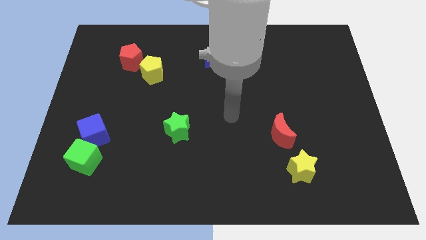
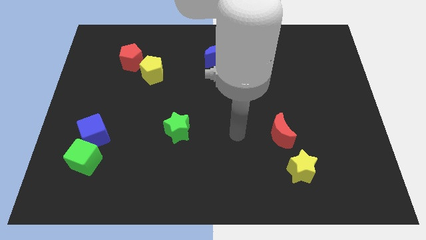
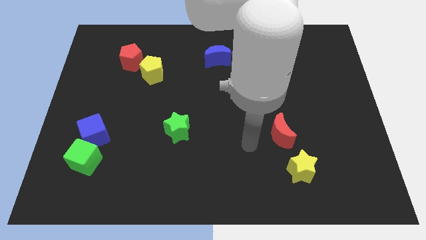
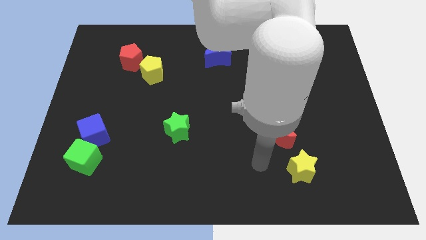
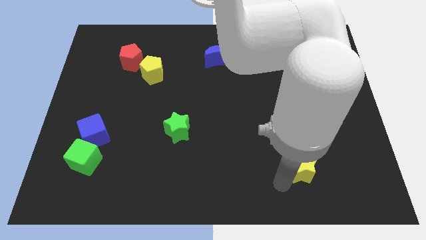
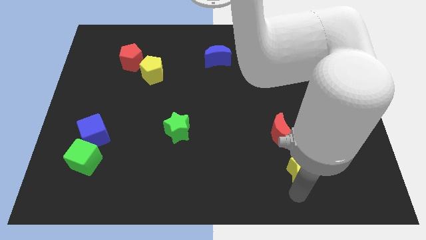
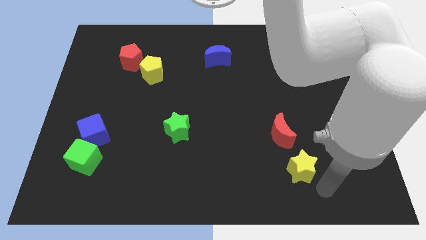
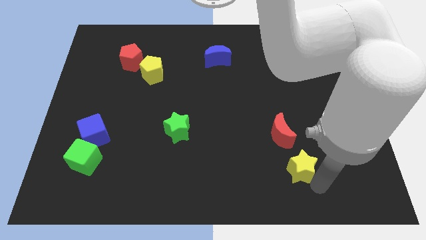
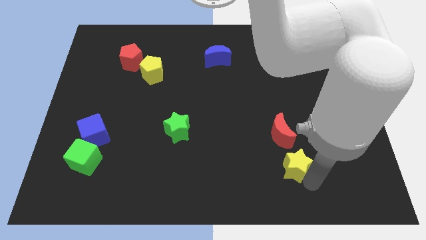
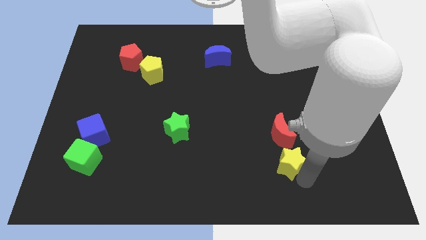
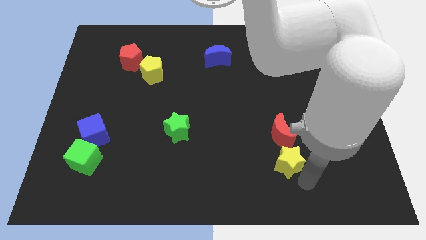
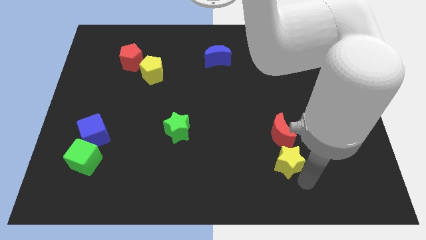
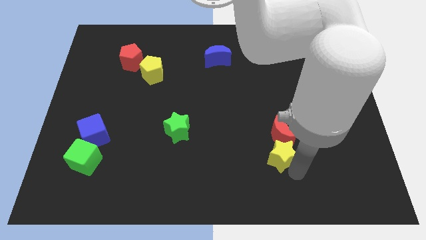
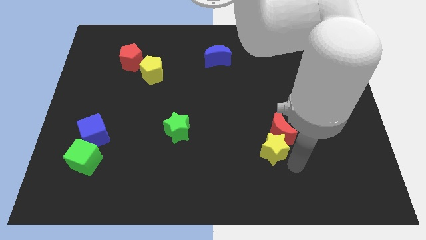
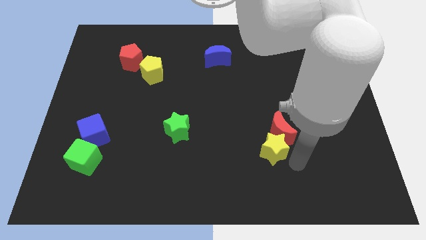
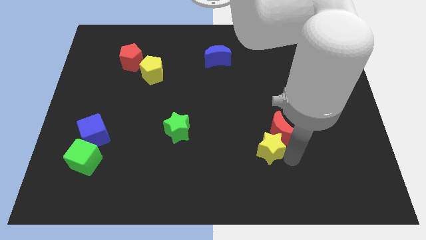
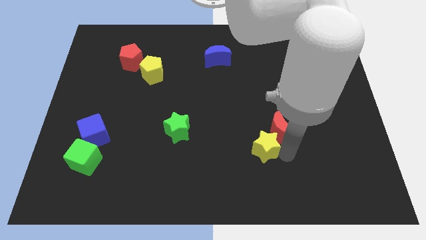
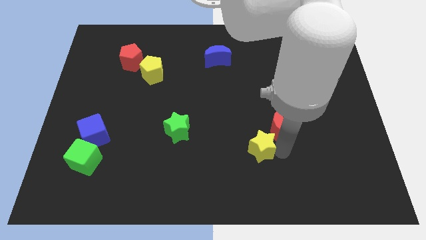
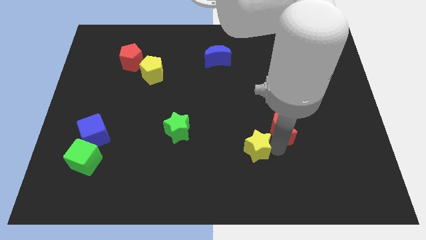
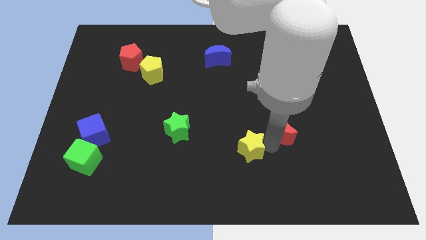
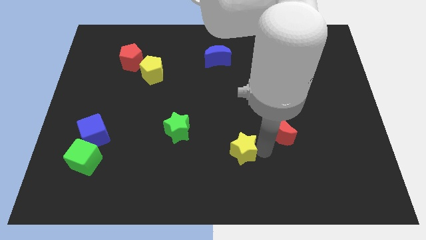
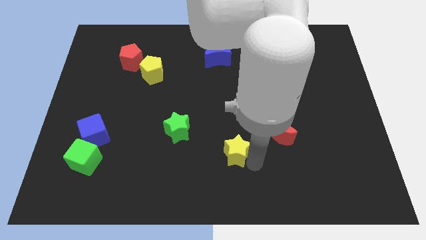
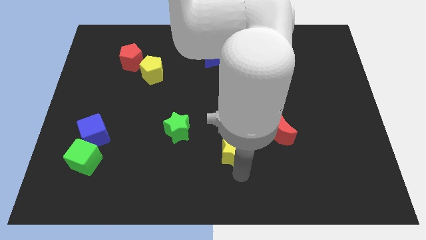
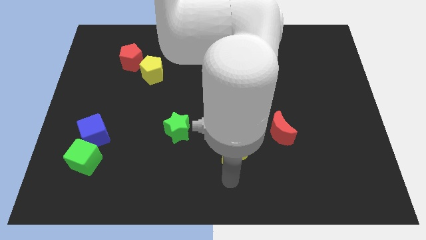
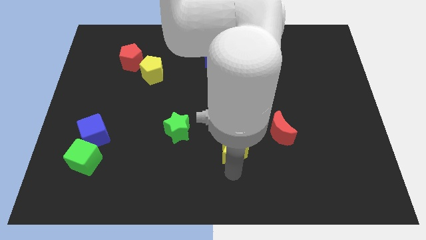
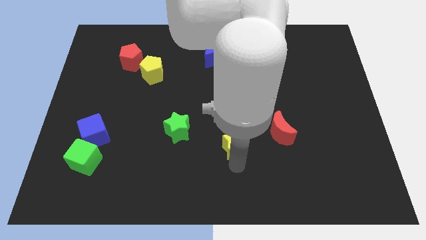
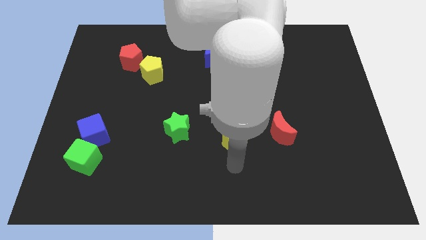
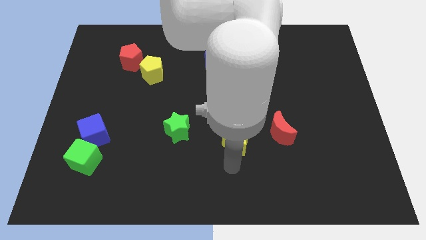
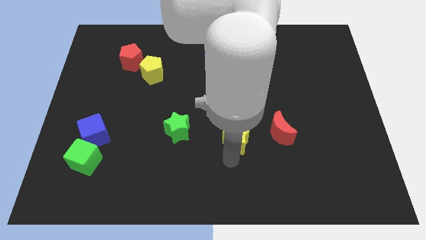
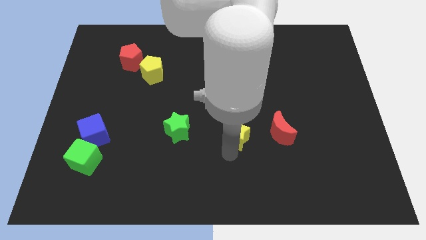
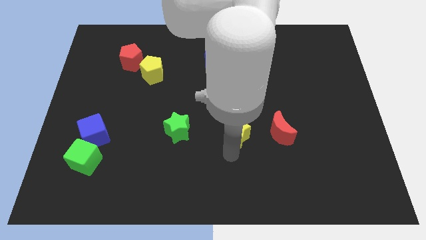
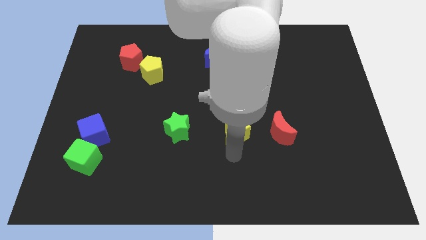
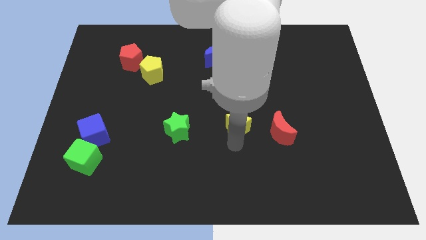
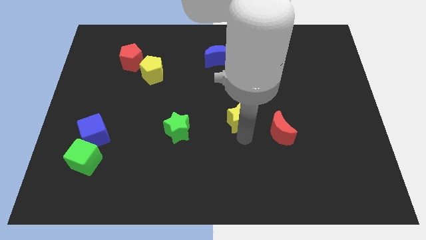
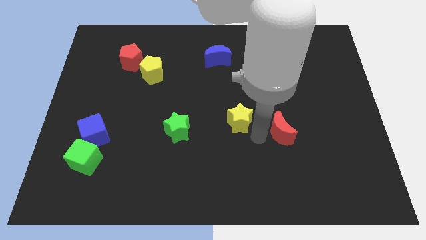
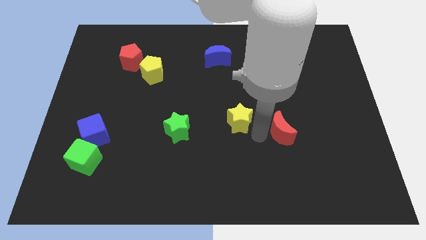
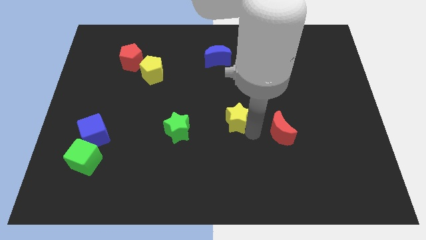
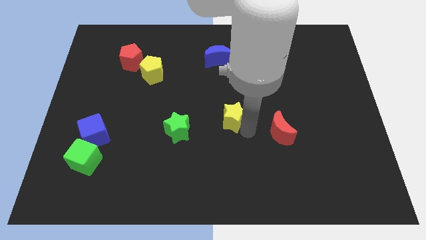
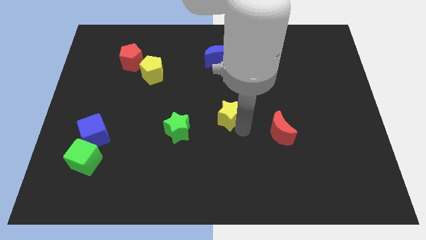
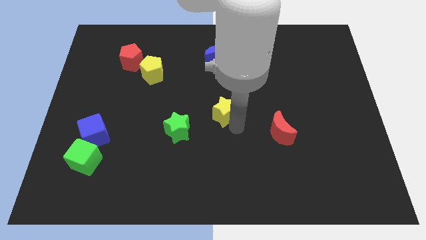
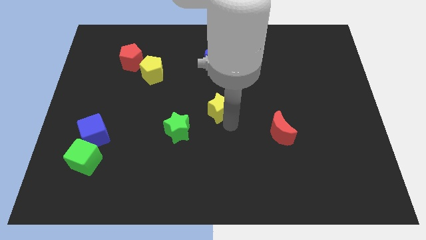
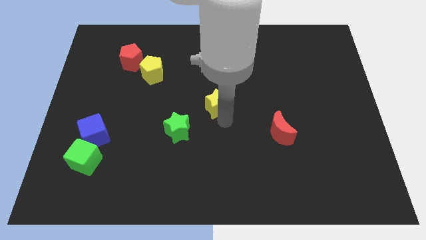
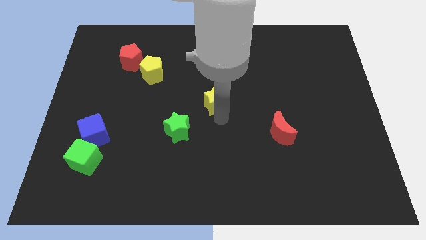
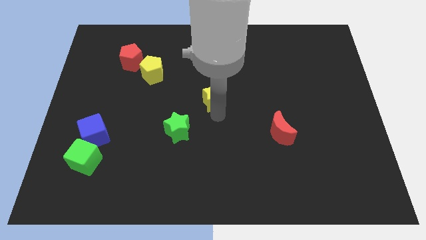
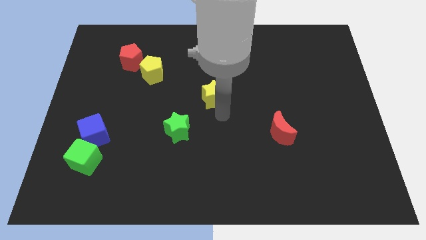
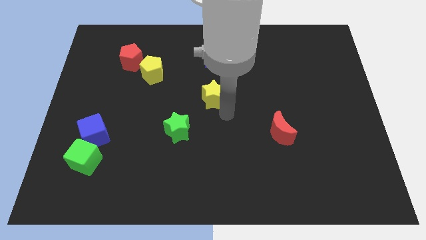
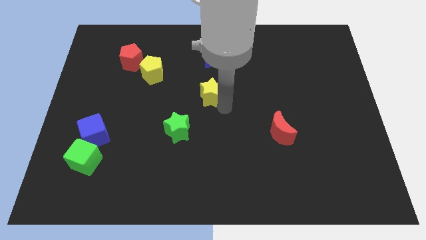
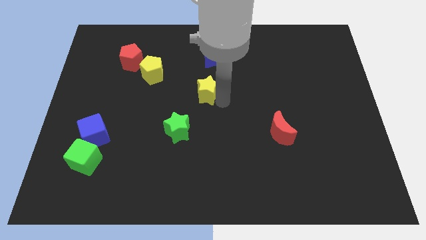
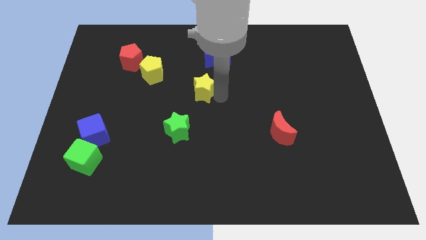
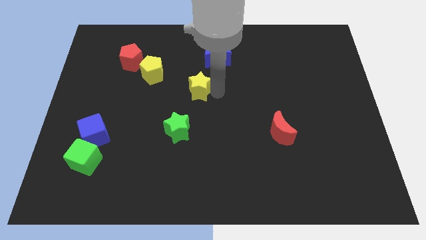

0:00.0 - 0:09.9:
push the yellow star diagonally down and to the left of the blue moon

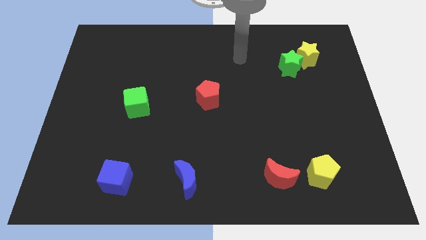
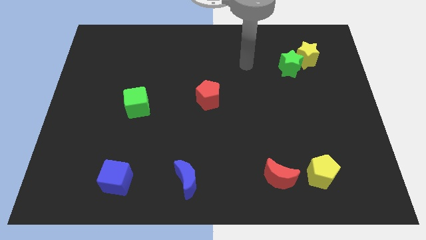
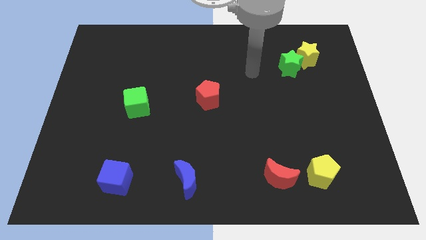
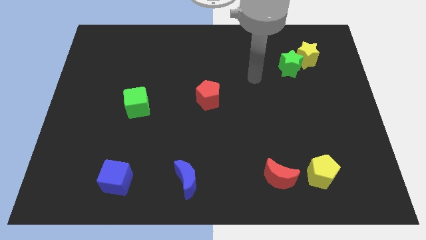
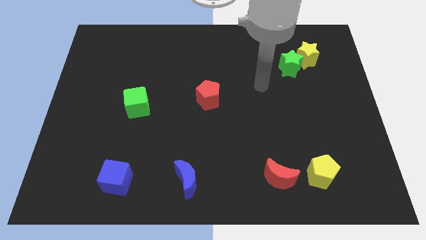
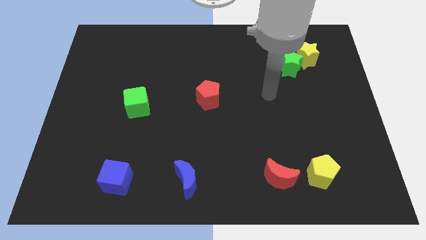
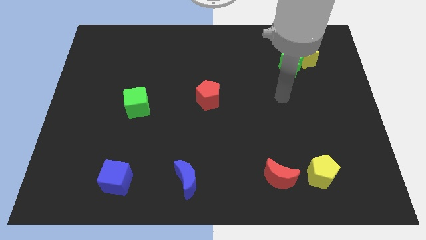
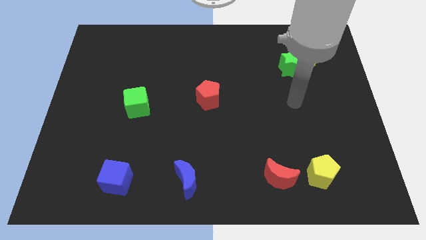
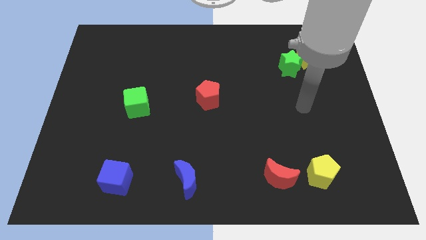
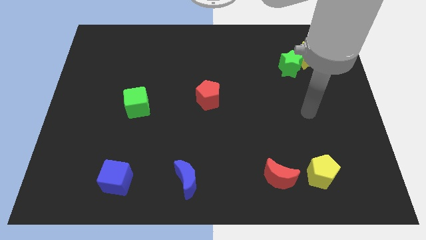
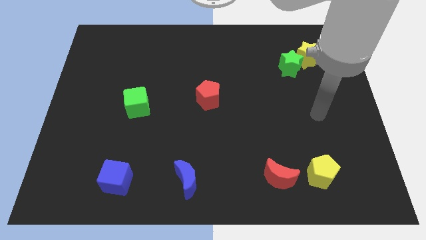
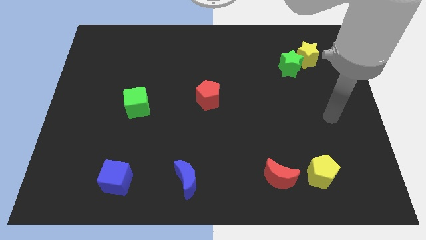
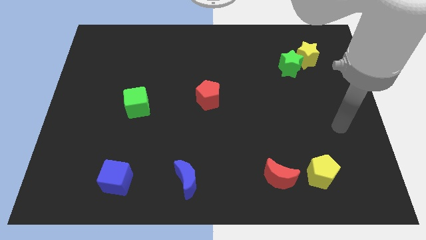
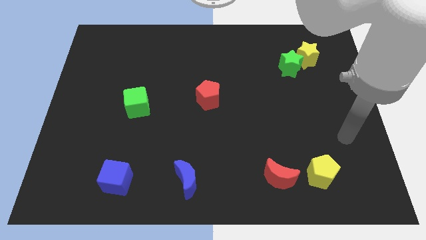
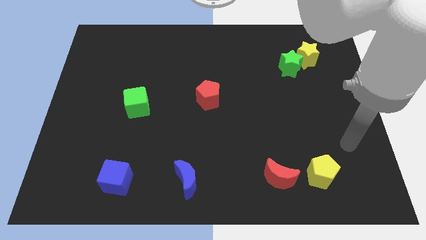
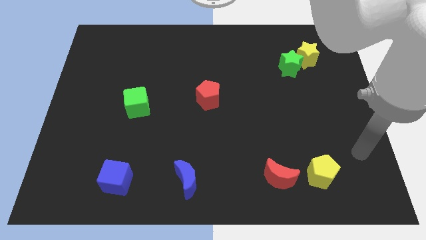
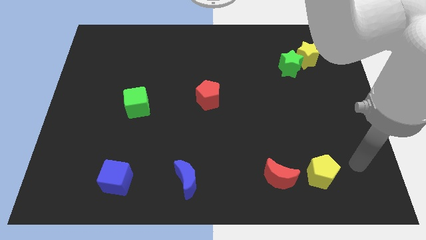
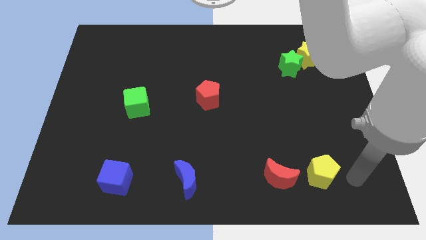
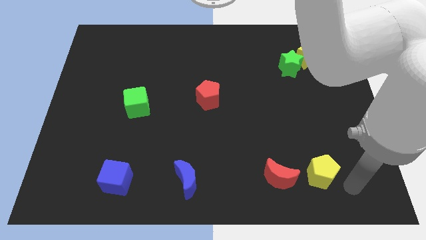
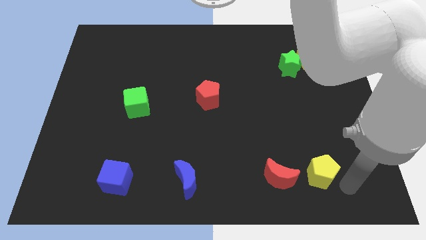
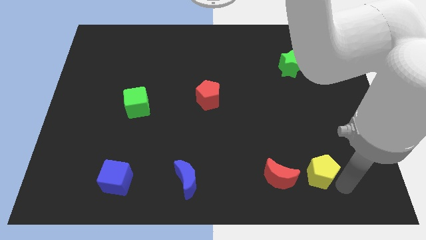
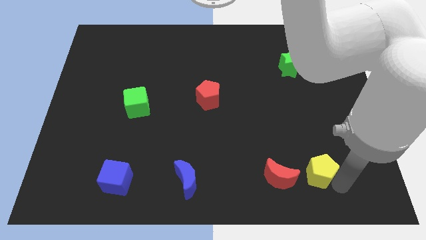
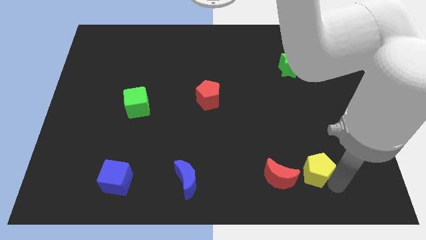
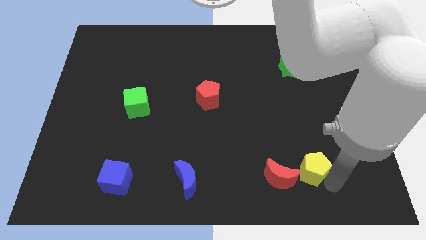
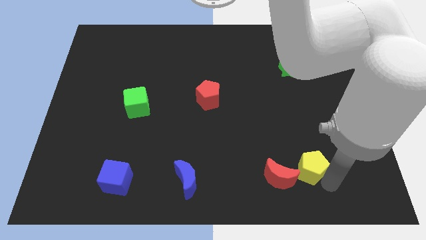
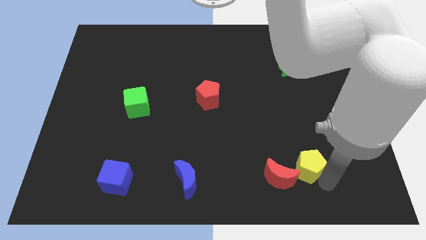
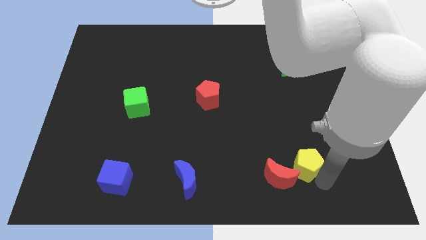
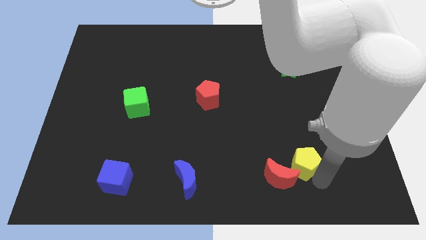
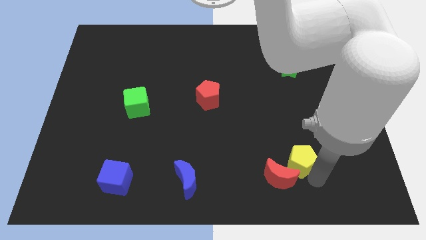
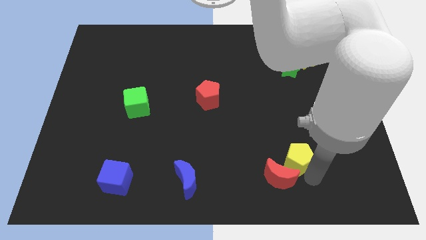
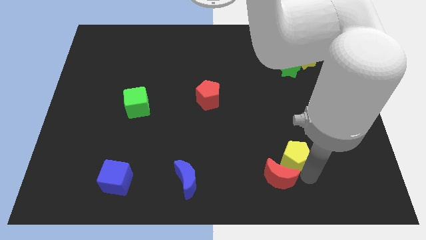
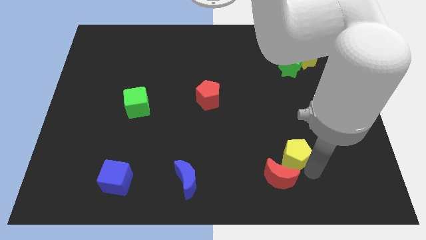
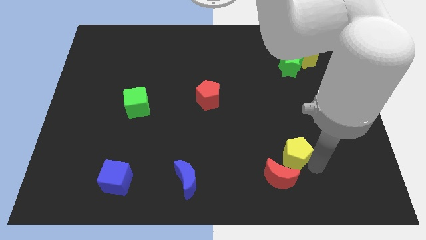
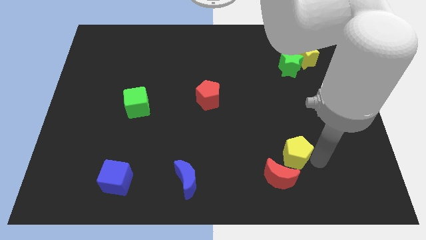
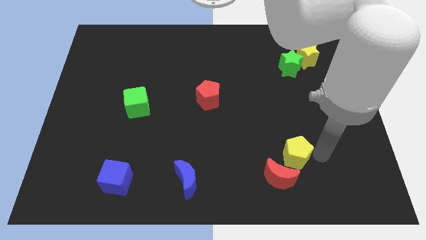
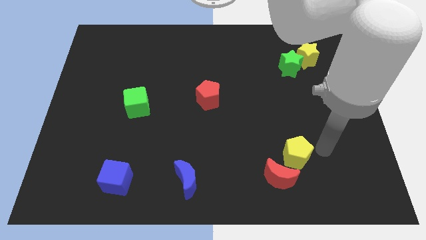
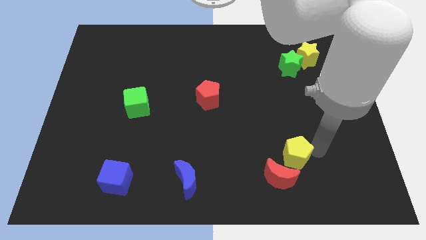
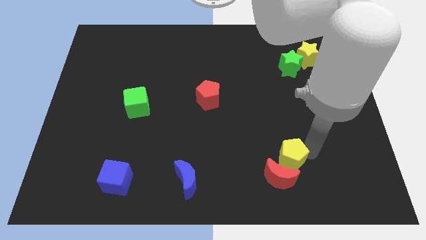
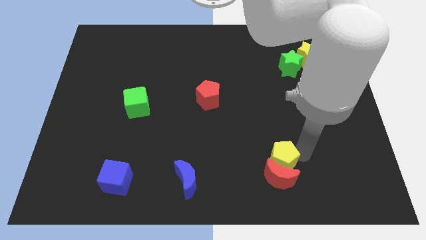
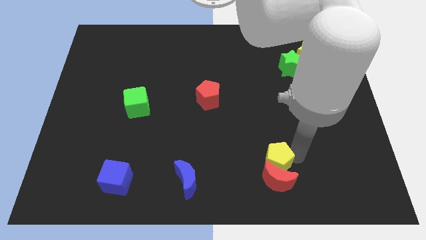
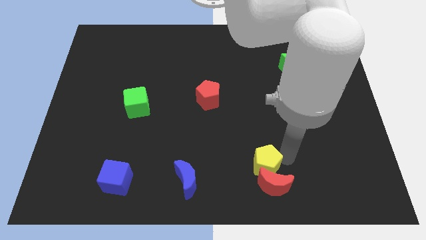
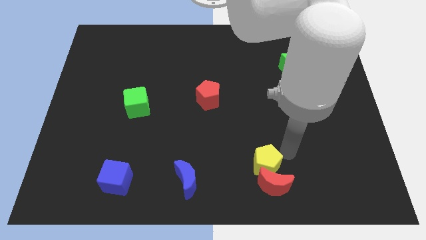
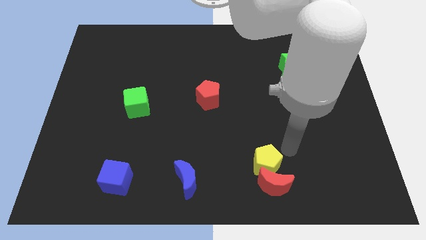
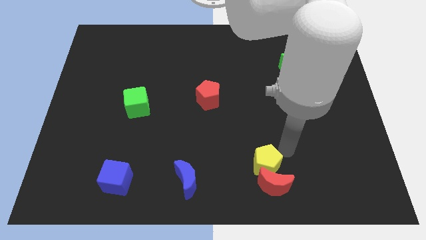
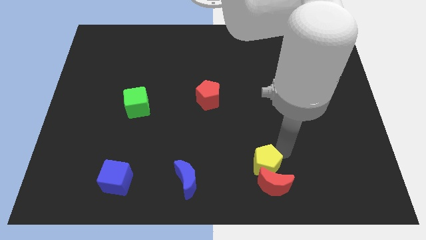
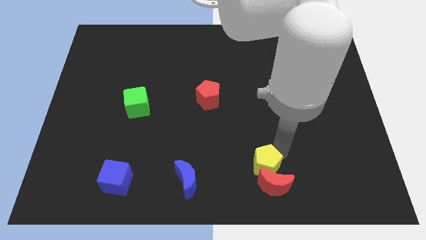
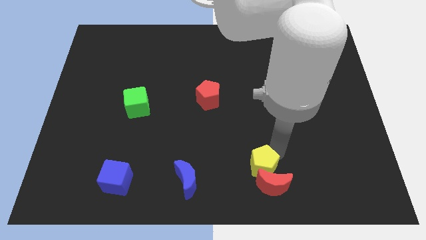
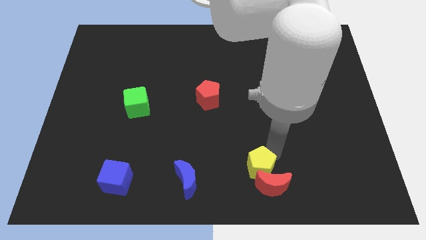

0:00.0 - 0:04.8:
move the yellow pentagon to the right side of the blue moon
